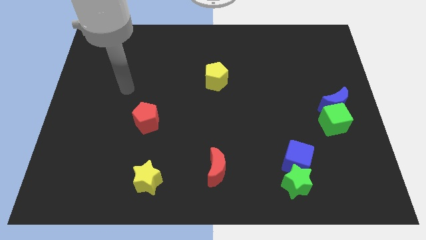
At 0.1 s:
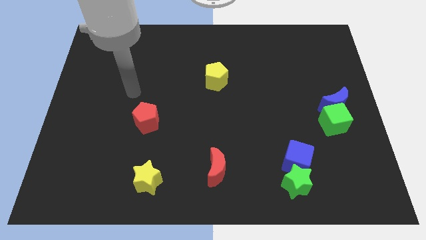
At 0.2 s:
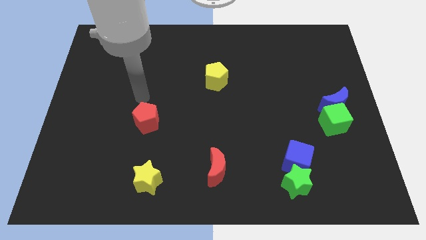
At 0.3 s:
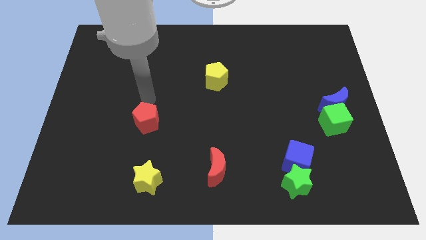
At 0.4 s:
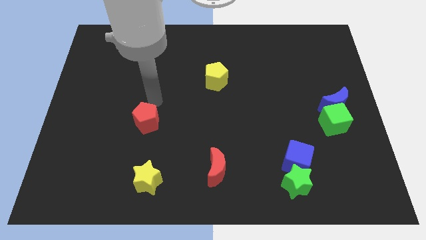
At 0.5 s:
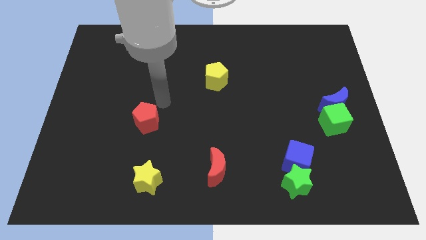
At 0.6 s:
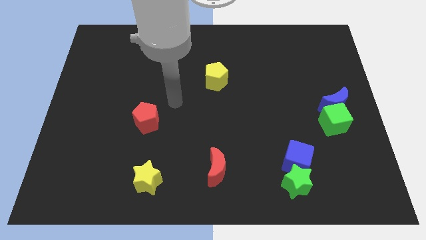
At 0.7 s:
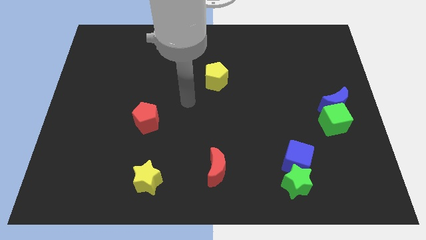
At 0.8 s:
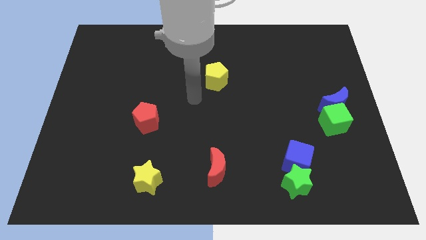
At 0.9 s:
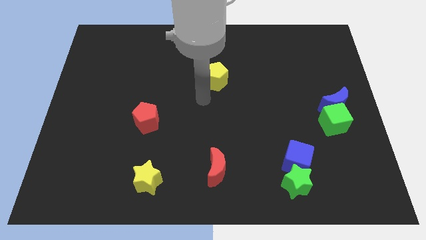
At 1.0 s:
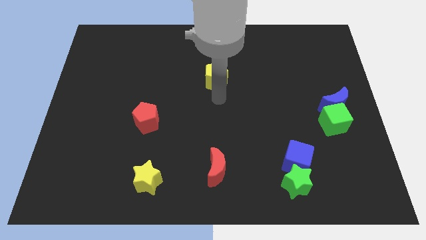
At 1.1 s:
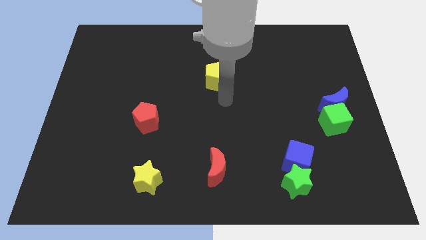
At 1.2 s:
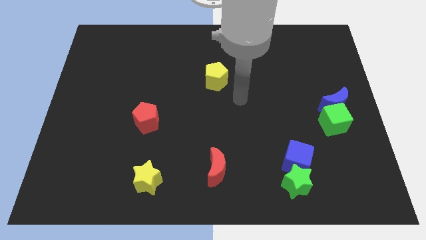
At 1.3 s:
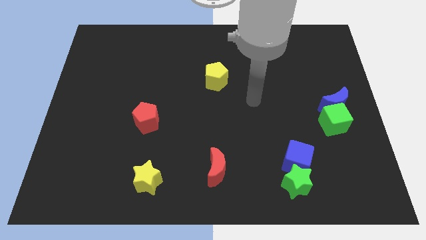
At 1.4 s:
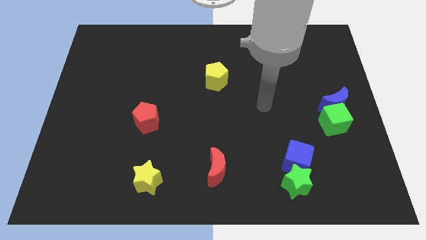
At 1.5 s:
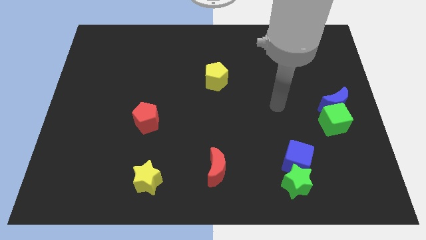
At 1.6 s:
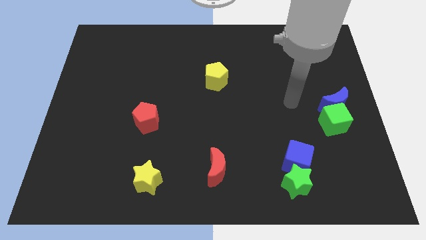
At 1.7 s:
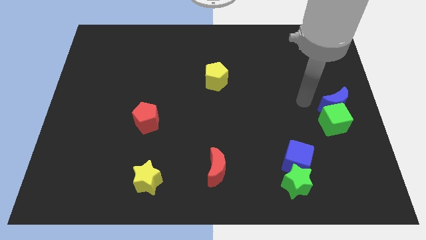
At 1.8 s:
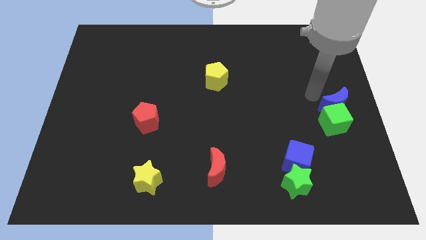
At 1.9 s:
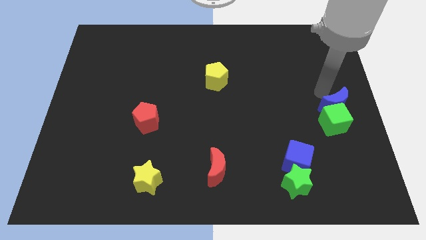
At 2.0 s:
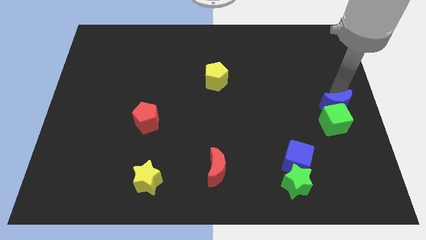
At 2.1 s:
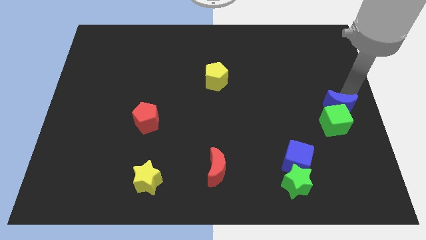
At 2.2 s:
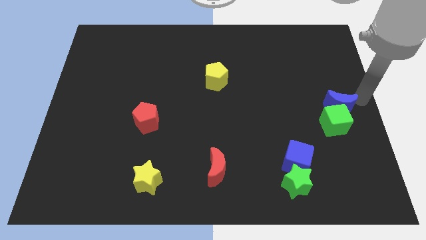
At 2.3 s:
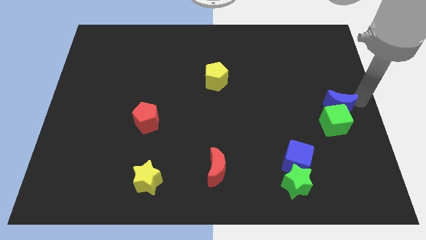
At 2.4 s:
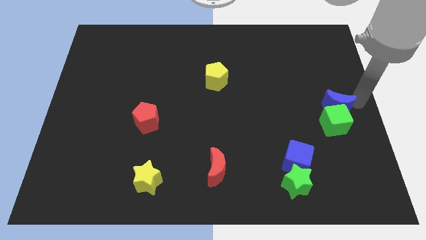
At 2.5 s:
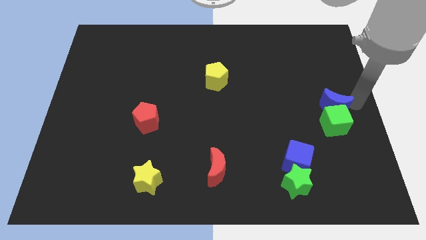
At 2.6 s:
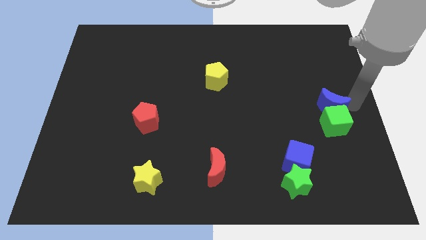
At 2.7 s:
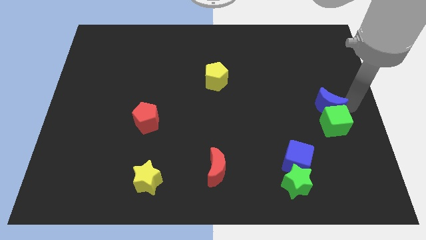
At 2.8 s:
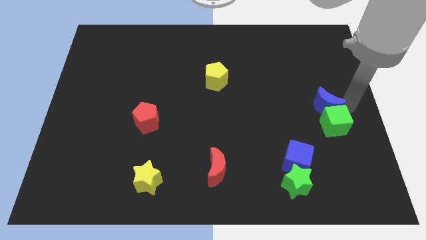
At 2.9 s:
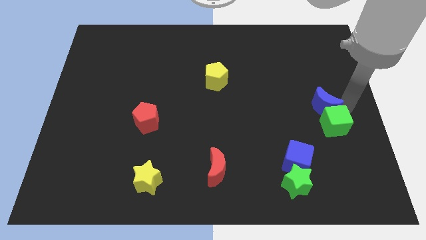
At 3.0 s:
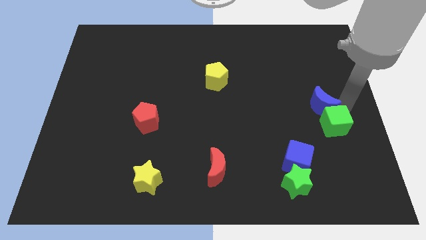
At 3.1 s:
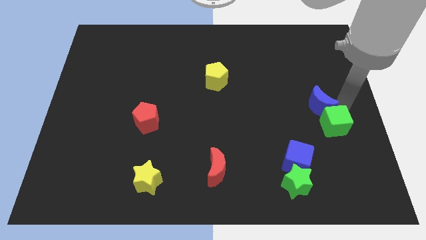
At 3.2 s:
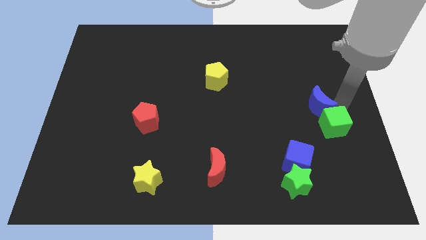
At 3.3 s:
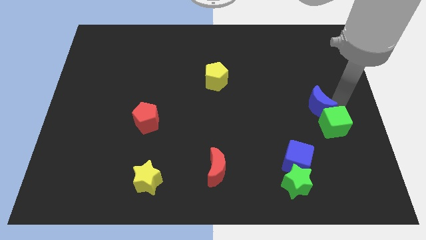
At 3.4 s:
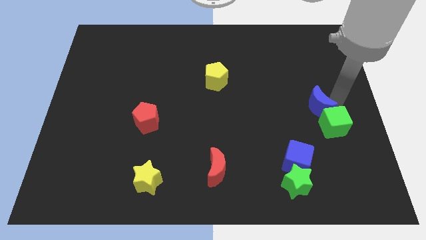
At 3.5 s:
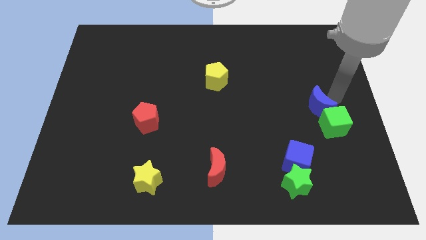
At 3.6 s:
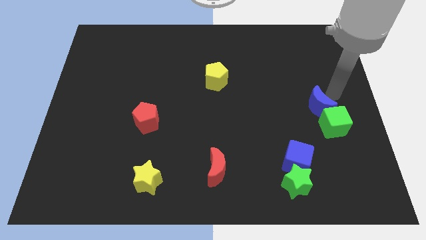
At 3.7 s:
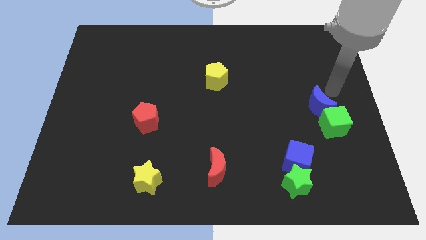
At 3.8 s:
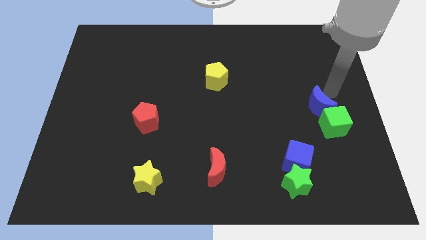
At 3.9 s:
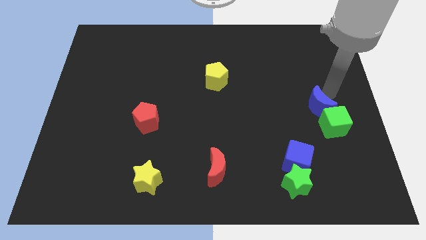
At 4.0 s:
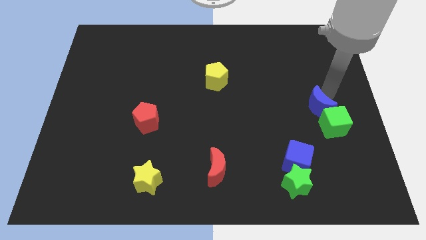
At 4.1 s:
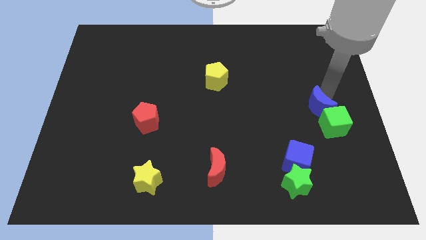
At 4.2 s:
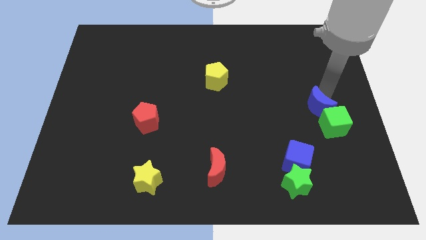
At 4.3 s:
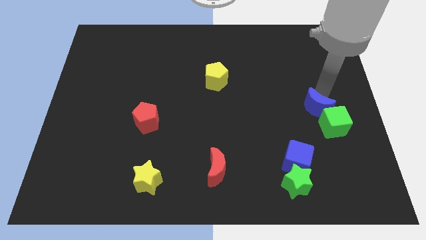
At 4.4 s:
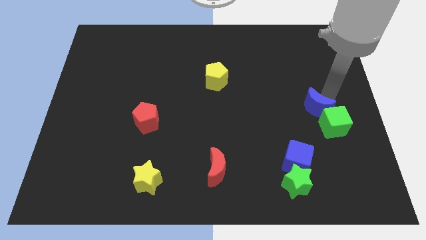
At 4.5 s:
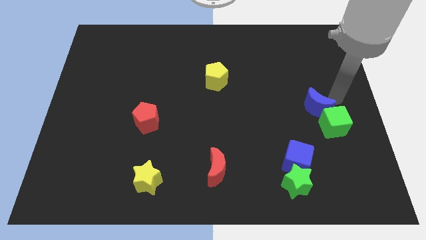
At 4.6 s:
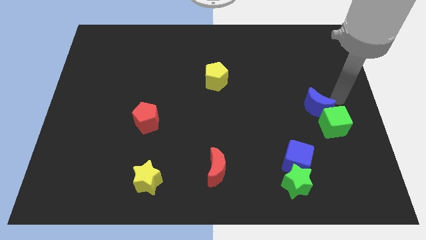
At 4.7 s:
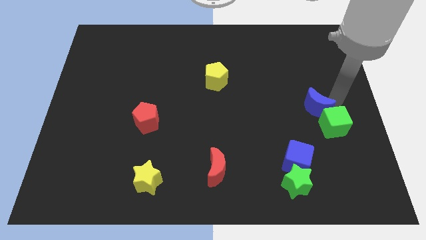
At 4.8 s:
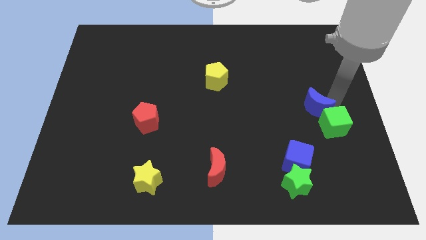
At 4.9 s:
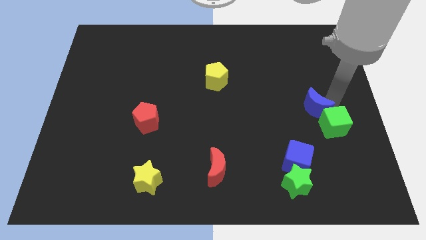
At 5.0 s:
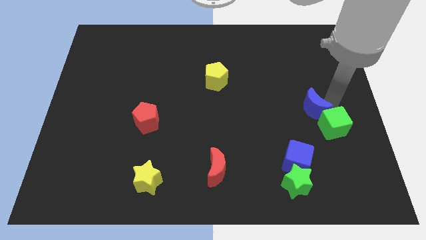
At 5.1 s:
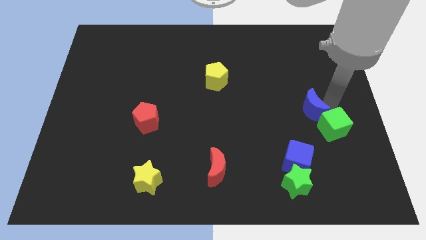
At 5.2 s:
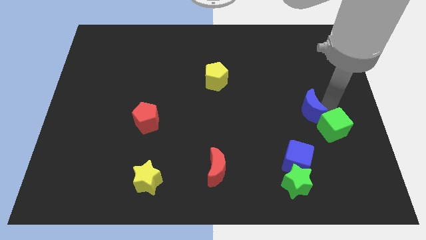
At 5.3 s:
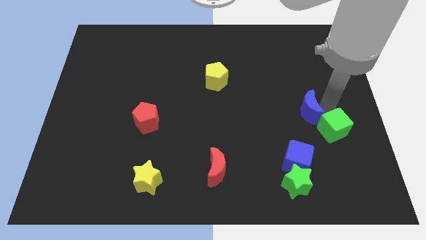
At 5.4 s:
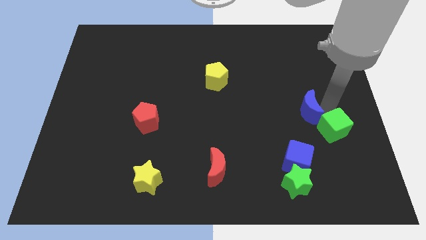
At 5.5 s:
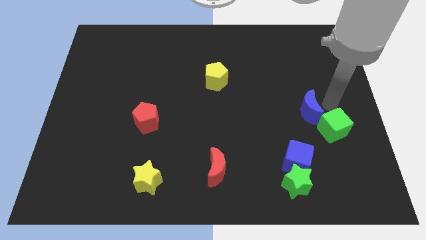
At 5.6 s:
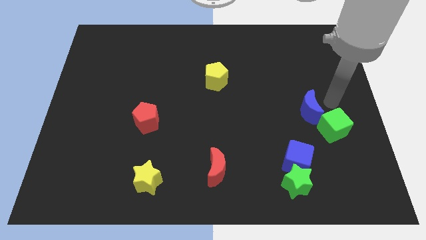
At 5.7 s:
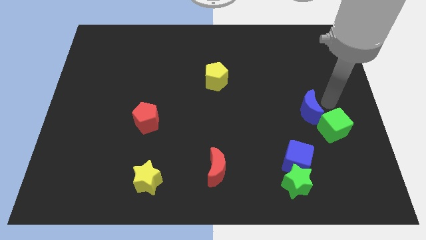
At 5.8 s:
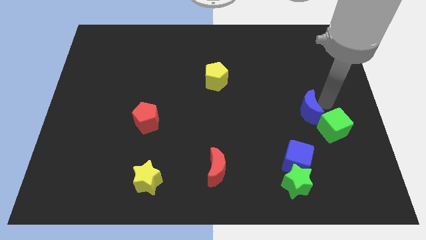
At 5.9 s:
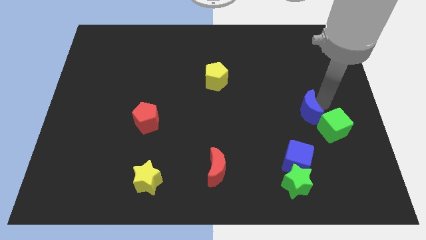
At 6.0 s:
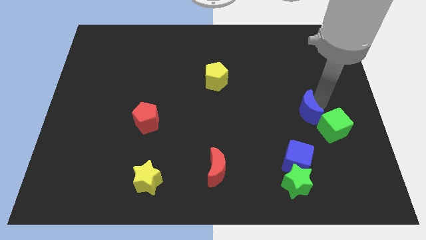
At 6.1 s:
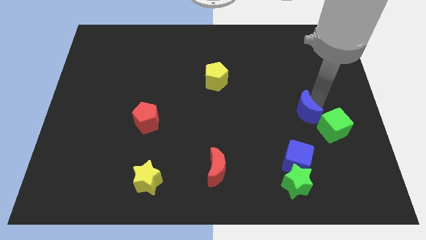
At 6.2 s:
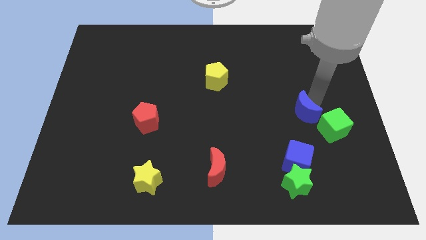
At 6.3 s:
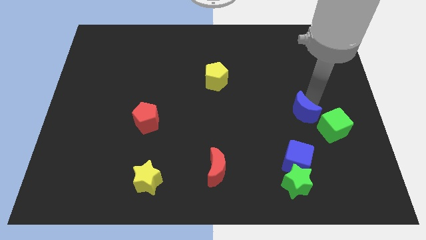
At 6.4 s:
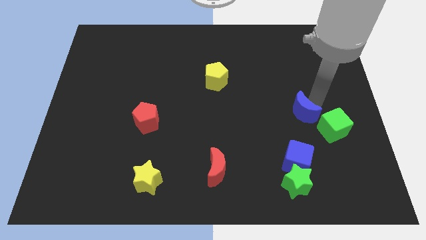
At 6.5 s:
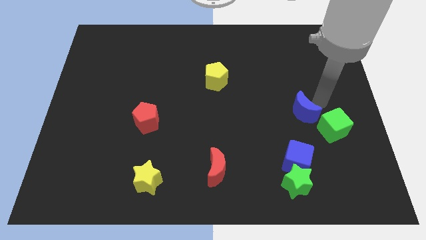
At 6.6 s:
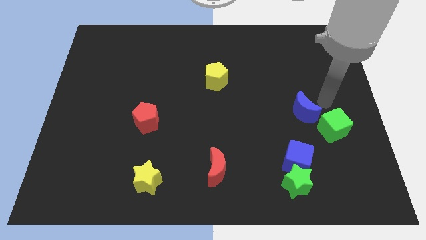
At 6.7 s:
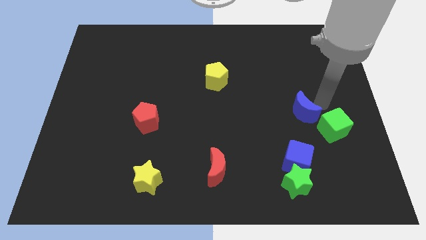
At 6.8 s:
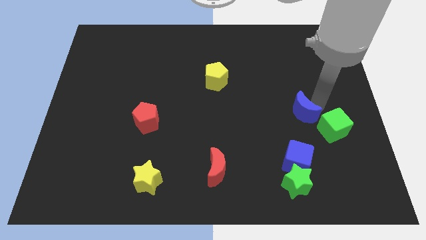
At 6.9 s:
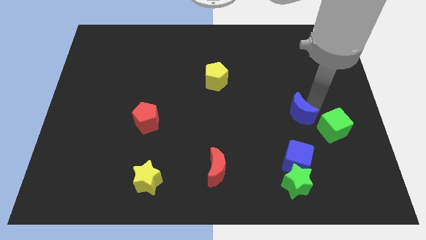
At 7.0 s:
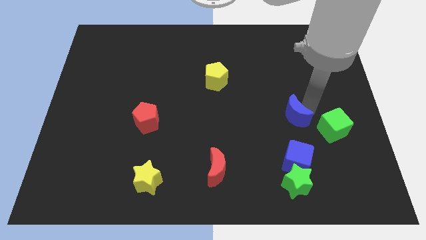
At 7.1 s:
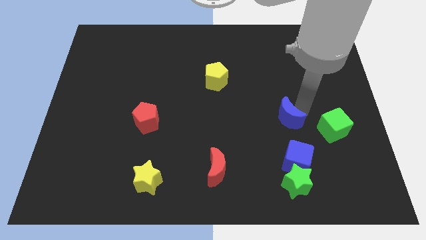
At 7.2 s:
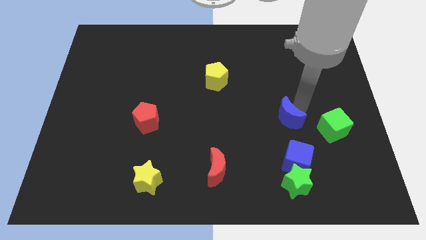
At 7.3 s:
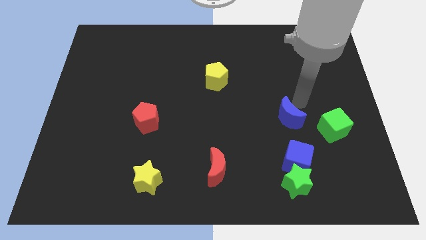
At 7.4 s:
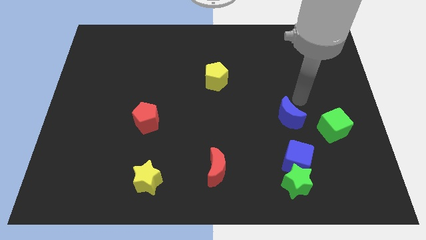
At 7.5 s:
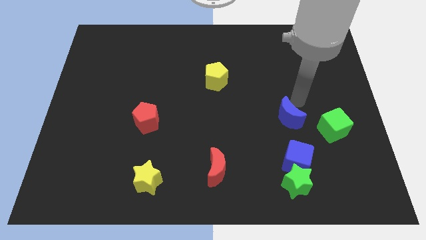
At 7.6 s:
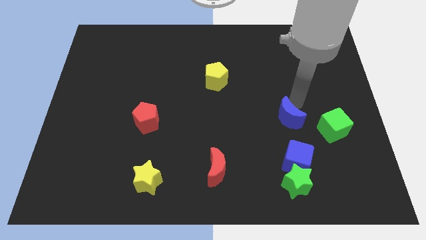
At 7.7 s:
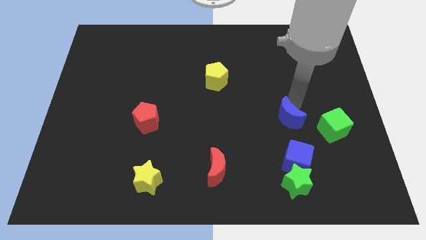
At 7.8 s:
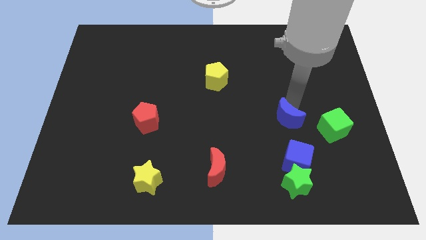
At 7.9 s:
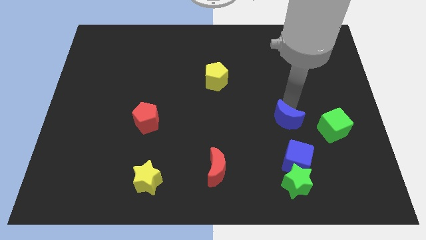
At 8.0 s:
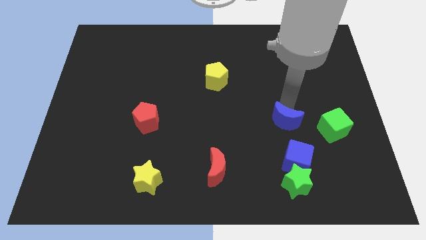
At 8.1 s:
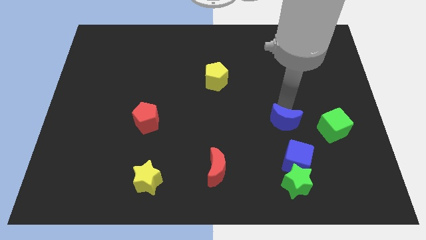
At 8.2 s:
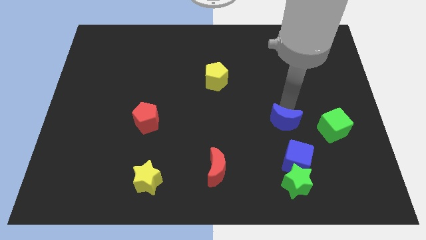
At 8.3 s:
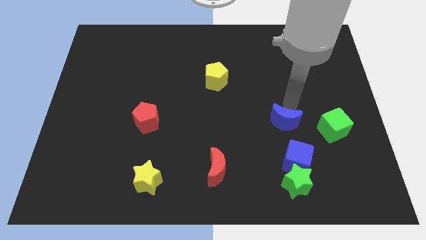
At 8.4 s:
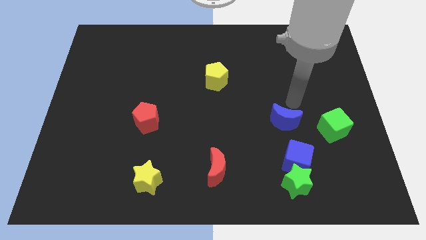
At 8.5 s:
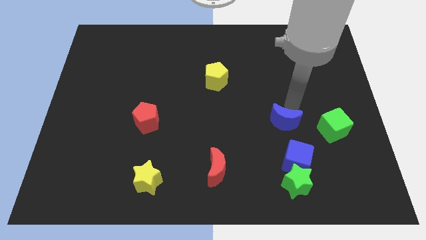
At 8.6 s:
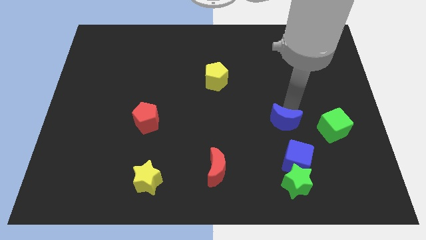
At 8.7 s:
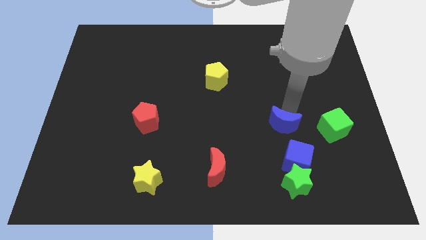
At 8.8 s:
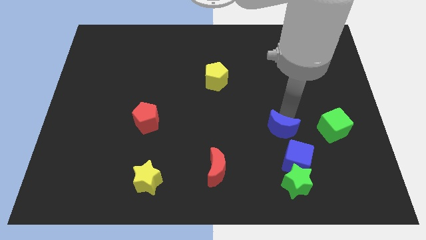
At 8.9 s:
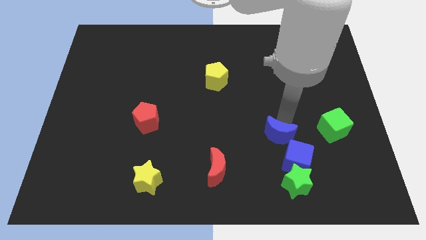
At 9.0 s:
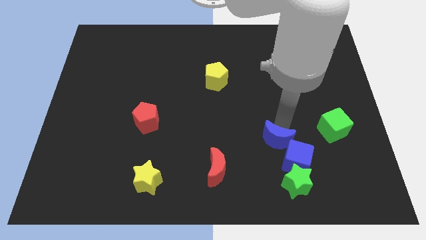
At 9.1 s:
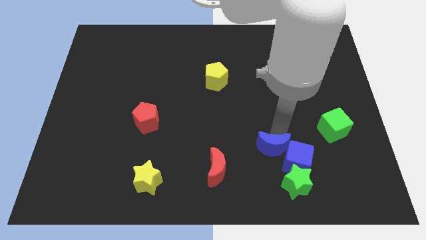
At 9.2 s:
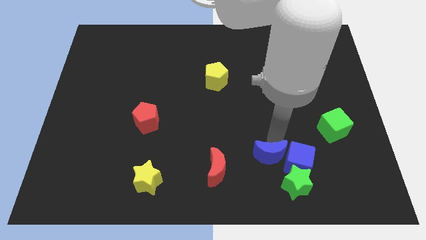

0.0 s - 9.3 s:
put the blue moon to the right of the red moon
